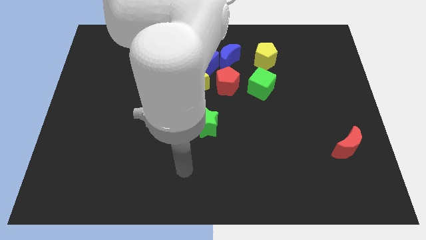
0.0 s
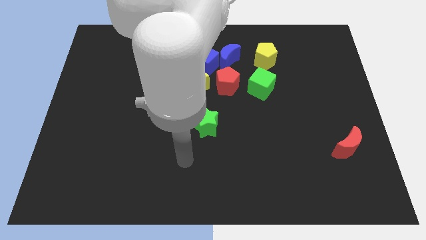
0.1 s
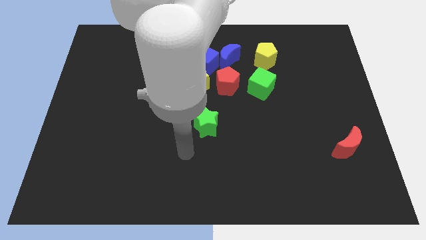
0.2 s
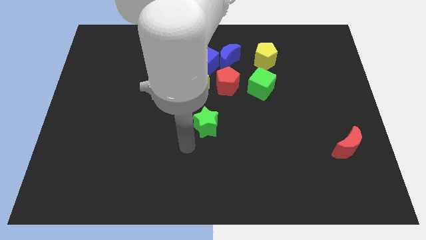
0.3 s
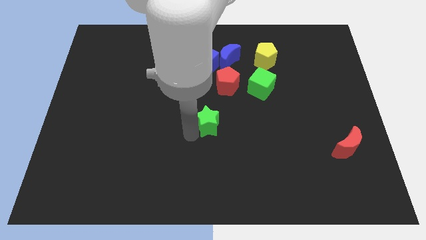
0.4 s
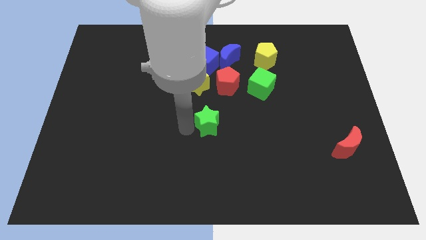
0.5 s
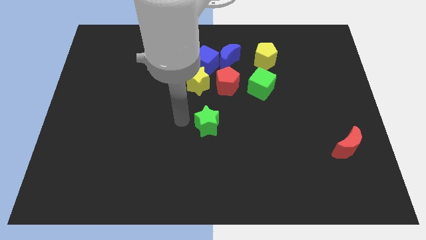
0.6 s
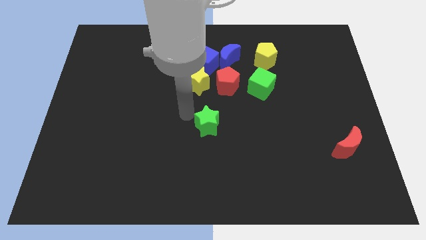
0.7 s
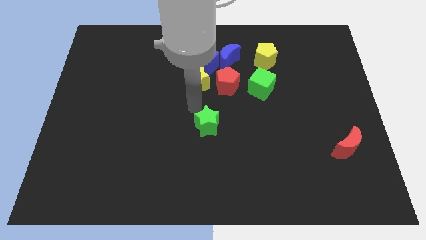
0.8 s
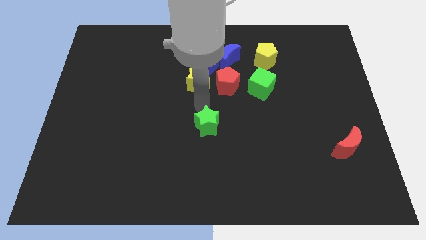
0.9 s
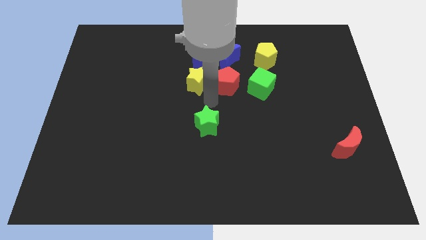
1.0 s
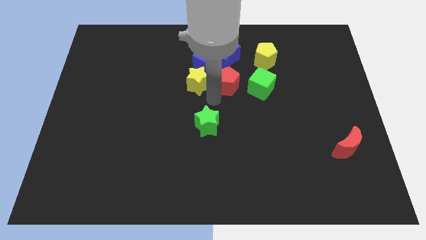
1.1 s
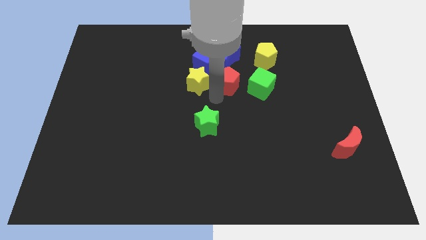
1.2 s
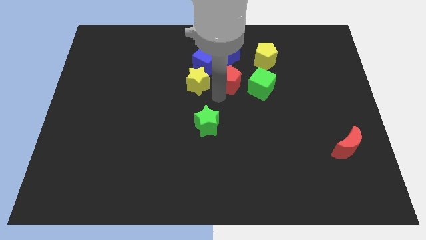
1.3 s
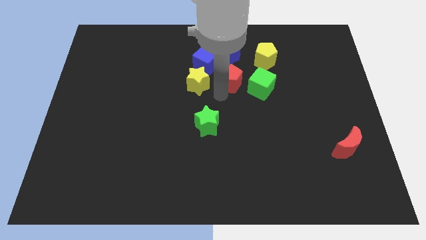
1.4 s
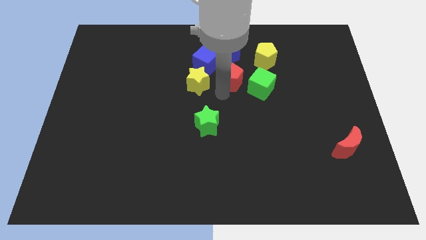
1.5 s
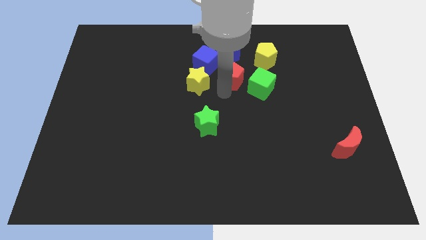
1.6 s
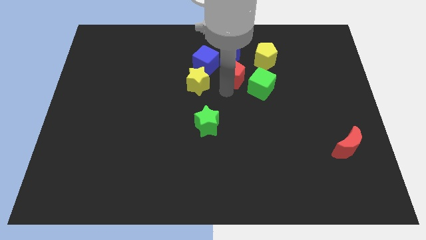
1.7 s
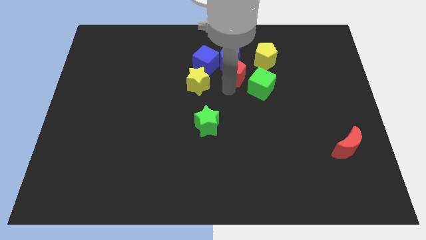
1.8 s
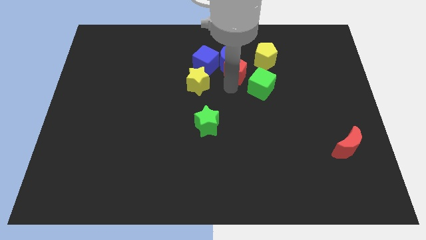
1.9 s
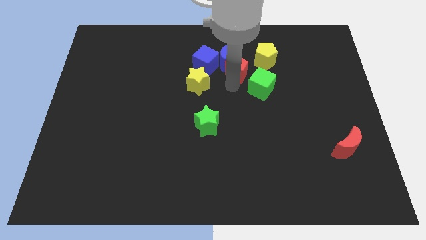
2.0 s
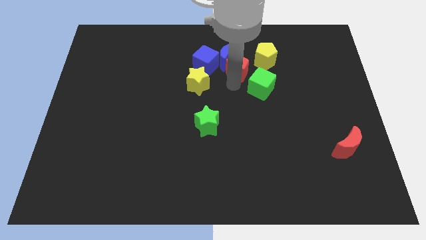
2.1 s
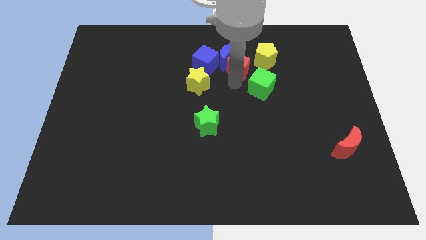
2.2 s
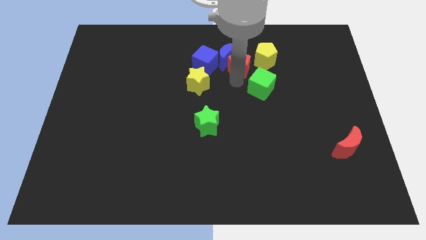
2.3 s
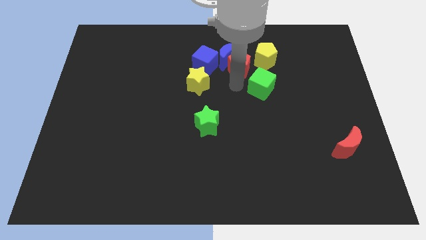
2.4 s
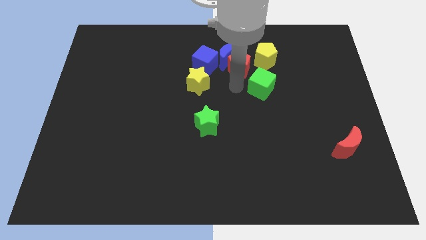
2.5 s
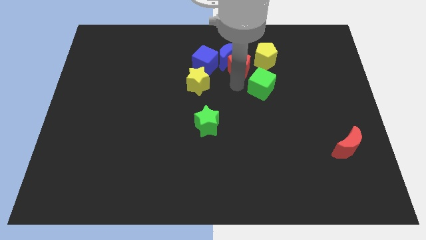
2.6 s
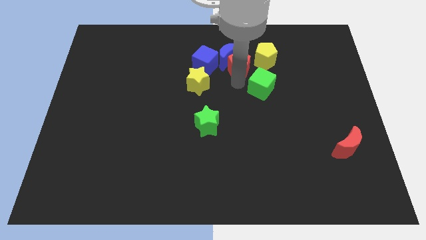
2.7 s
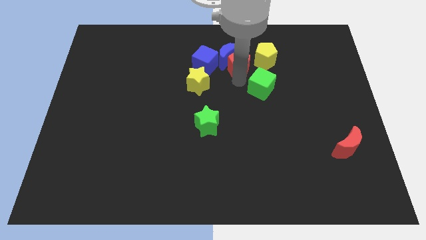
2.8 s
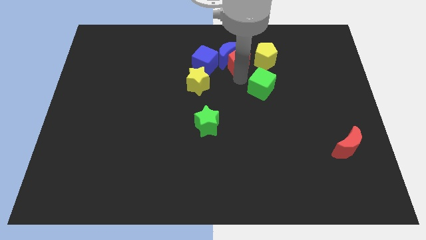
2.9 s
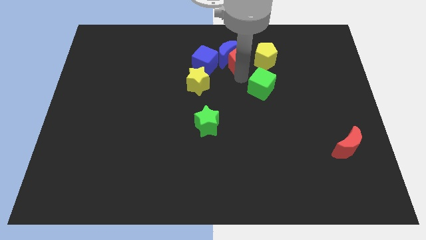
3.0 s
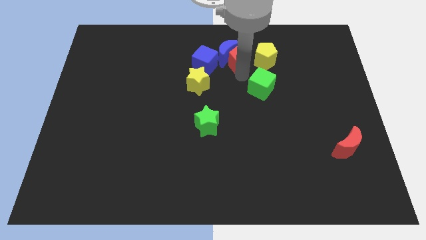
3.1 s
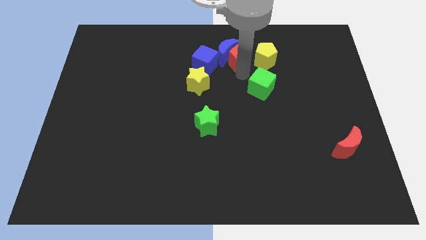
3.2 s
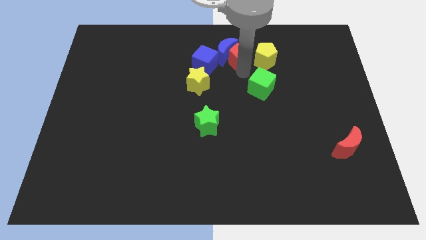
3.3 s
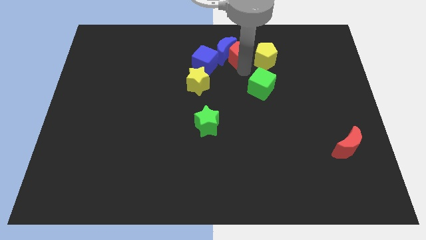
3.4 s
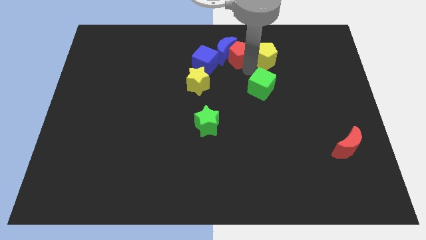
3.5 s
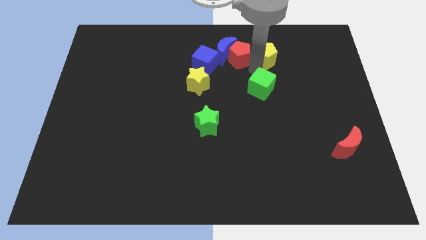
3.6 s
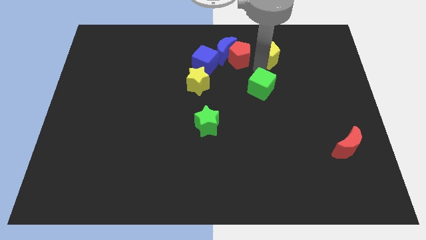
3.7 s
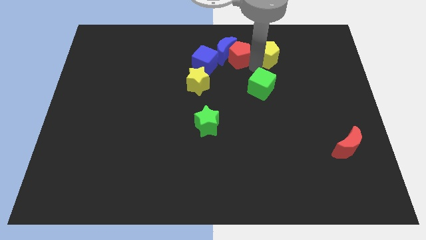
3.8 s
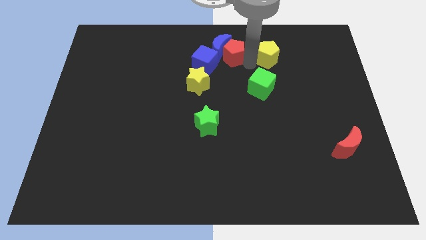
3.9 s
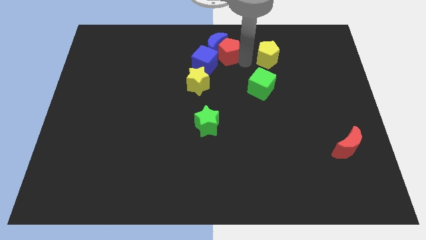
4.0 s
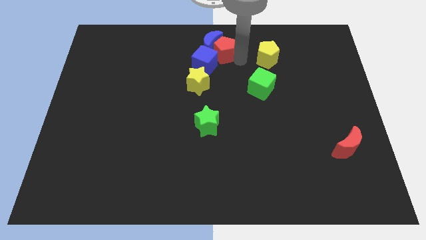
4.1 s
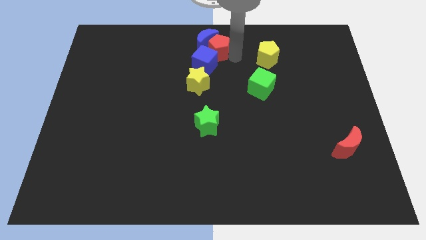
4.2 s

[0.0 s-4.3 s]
move the red pentagon to the top of the yellow star

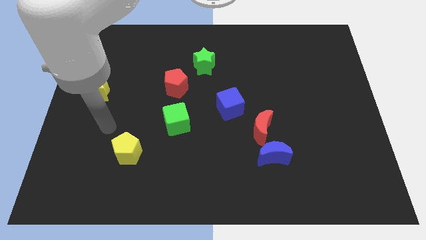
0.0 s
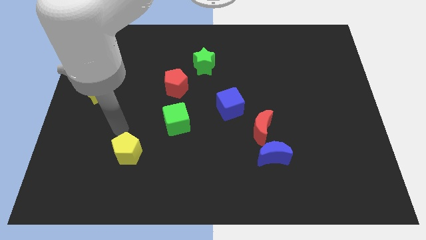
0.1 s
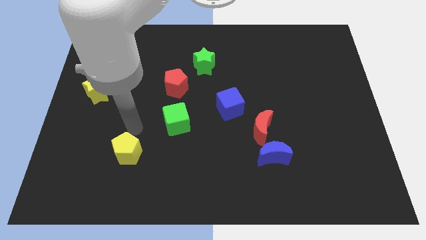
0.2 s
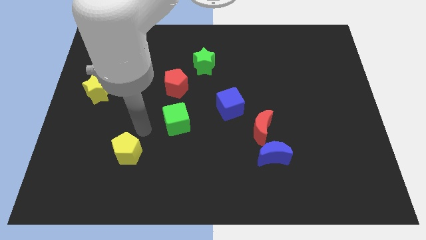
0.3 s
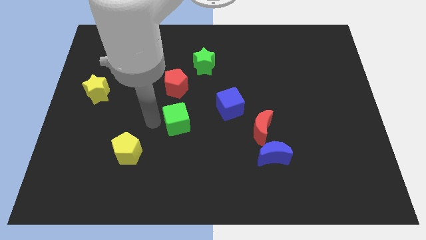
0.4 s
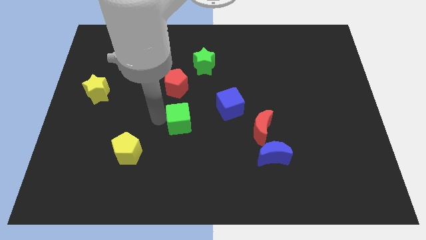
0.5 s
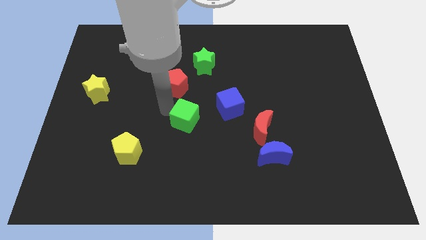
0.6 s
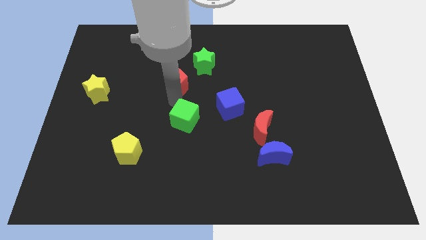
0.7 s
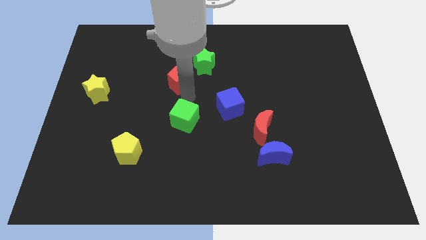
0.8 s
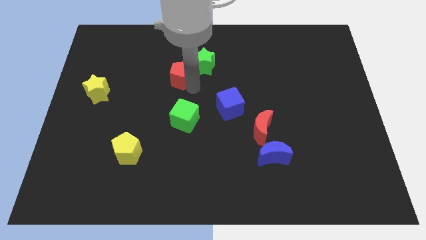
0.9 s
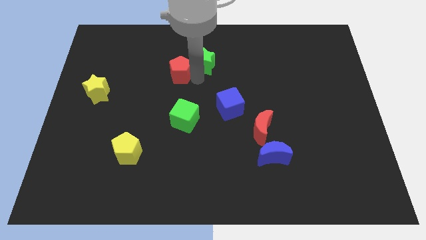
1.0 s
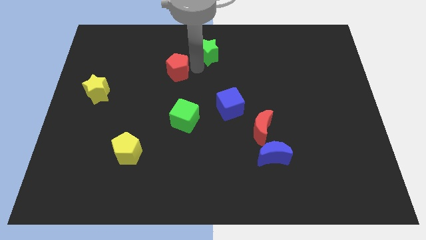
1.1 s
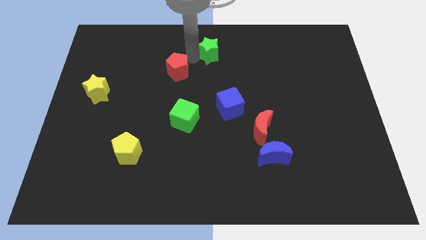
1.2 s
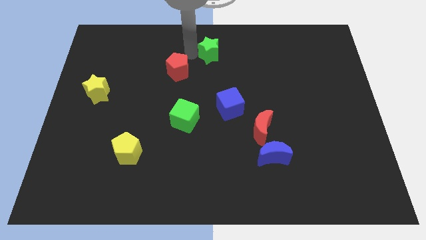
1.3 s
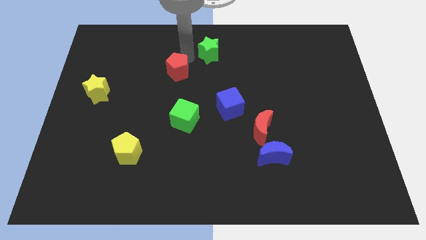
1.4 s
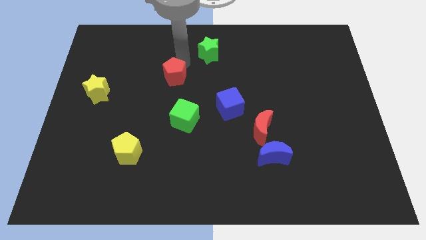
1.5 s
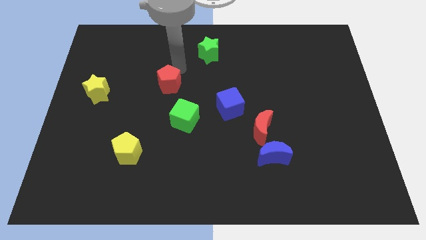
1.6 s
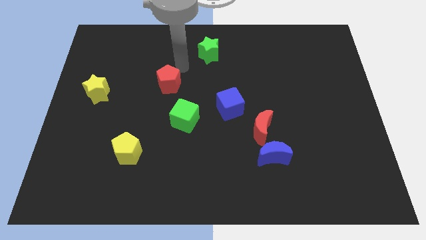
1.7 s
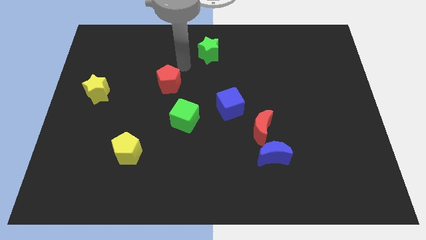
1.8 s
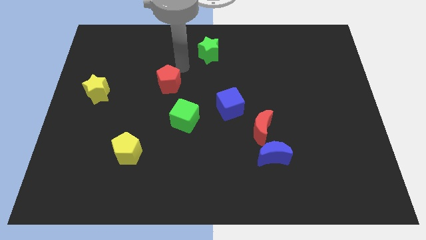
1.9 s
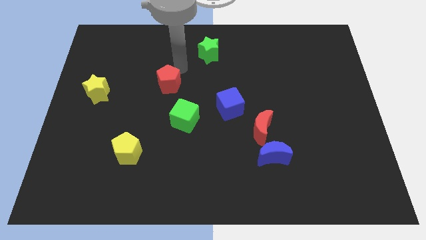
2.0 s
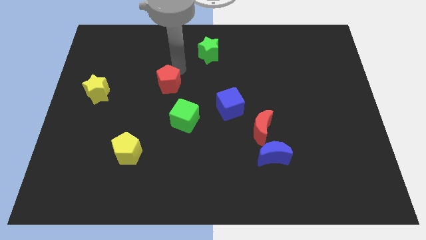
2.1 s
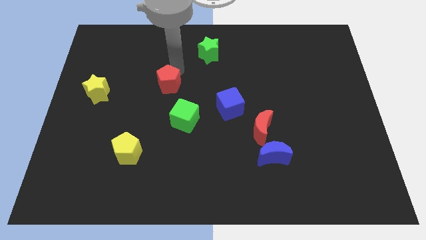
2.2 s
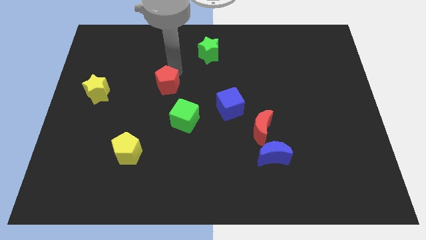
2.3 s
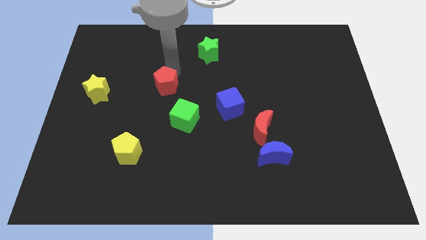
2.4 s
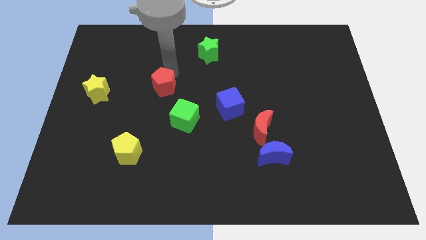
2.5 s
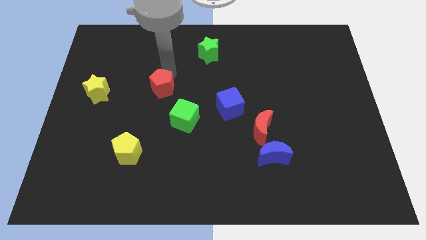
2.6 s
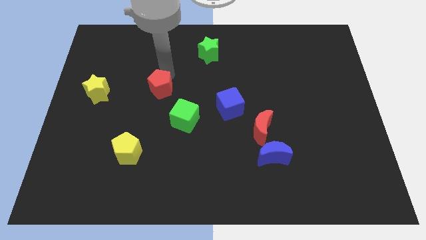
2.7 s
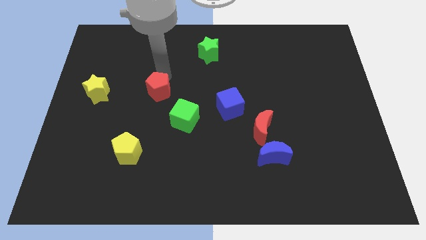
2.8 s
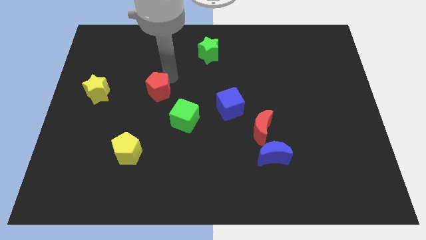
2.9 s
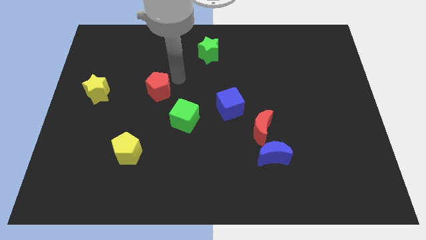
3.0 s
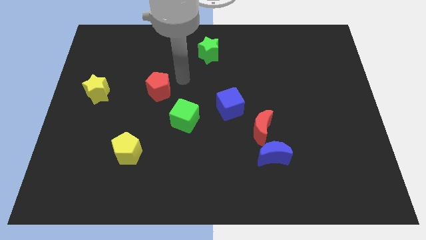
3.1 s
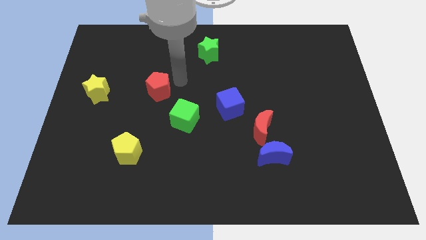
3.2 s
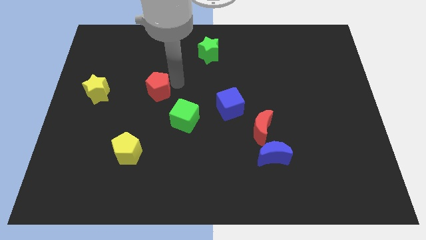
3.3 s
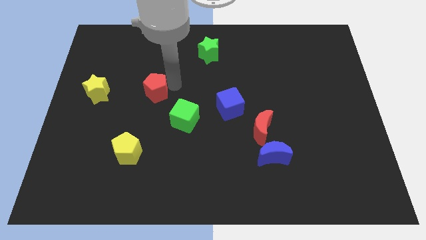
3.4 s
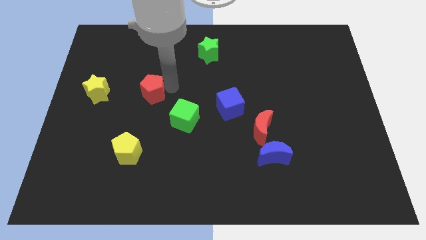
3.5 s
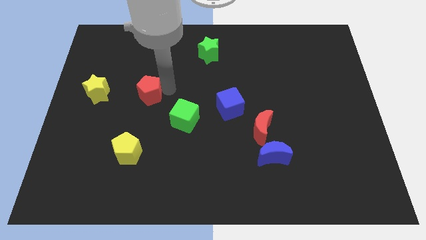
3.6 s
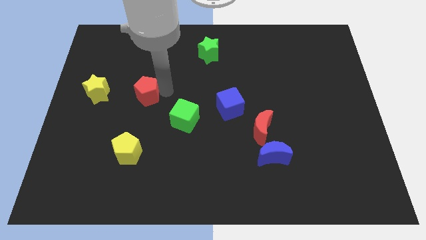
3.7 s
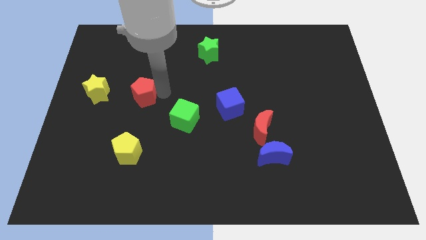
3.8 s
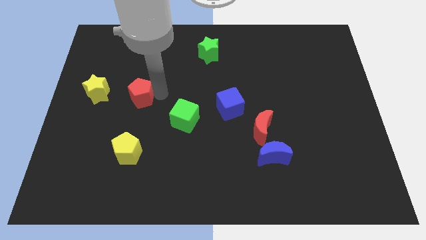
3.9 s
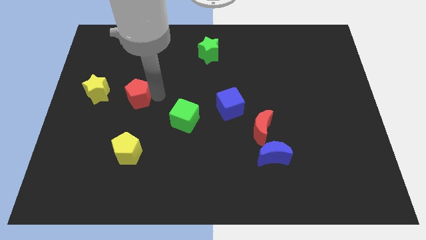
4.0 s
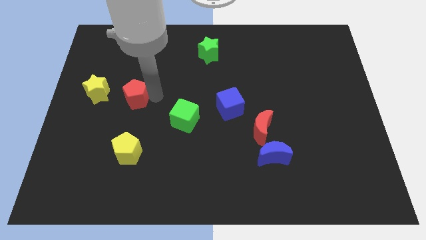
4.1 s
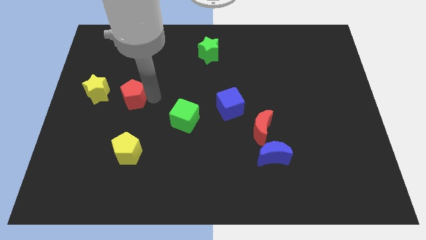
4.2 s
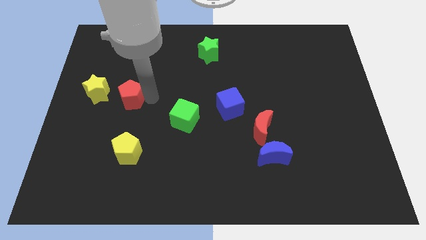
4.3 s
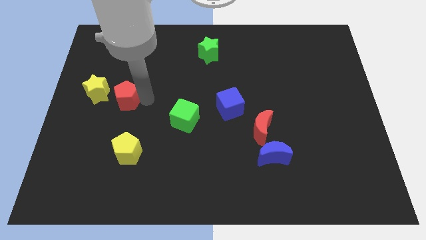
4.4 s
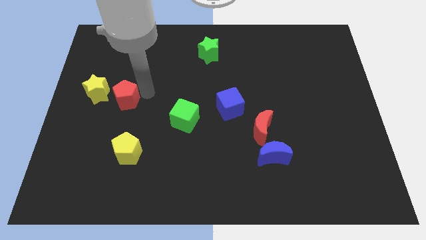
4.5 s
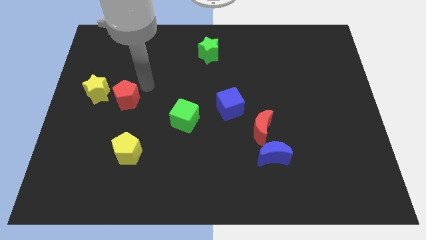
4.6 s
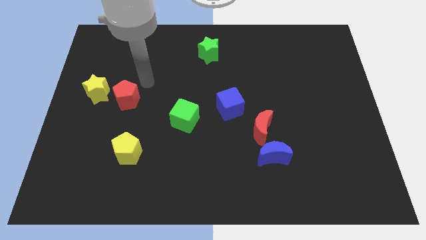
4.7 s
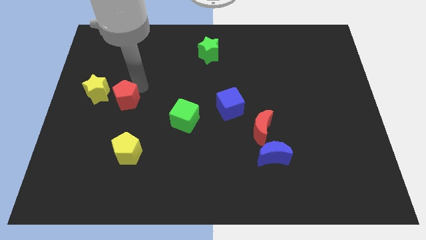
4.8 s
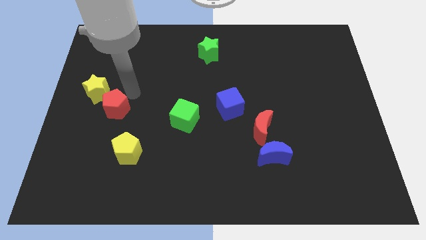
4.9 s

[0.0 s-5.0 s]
move the red pentagon to the bottom of the yellow star
